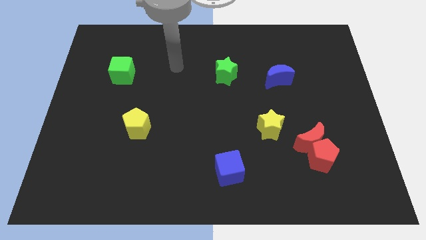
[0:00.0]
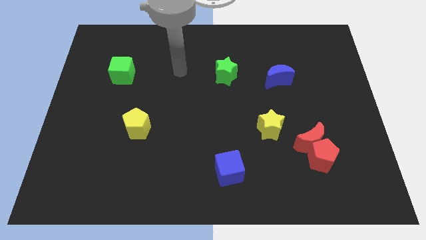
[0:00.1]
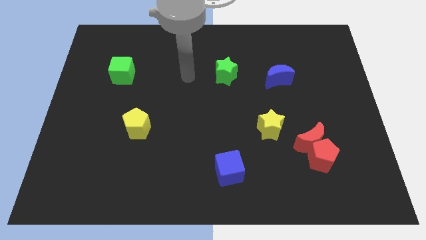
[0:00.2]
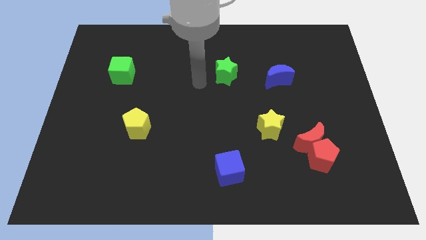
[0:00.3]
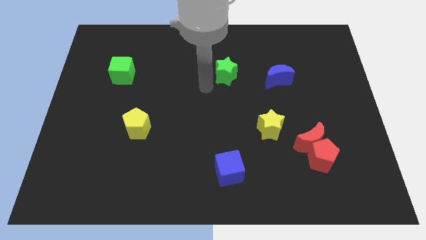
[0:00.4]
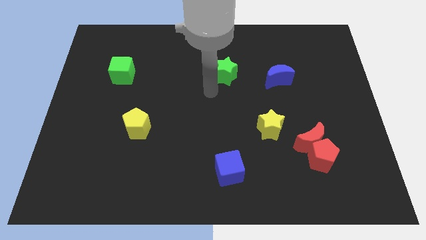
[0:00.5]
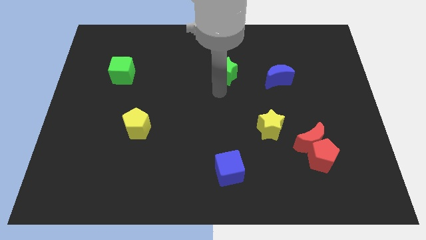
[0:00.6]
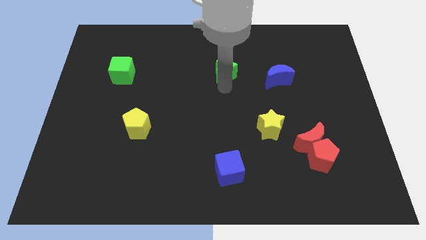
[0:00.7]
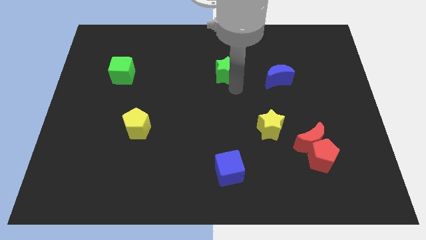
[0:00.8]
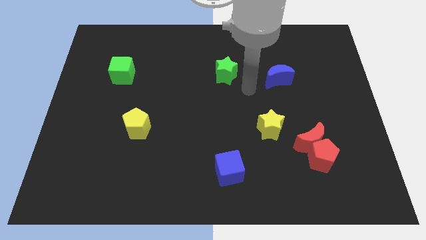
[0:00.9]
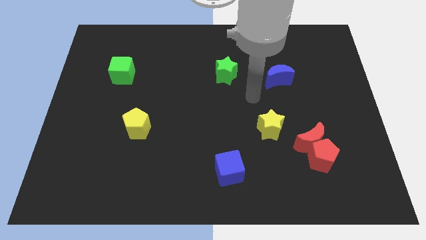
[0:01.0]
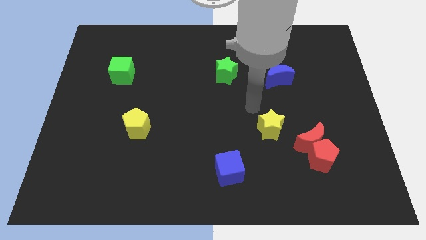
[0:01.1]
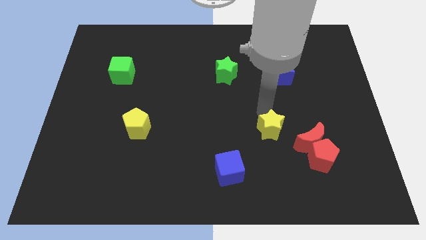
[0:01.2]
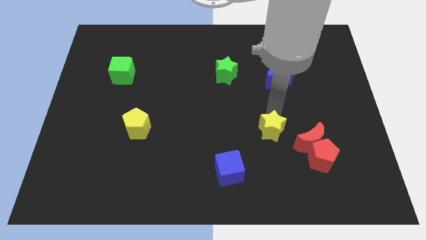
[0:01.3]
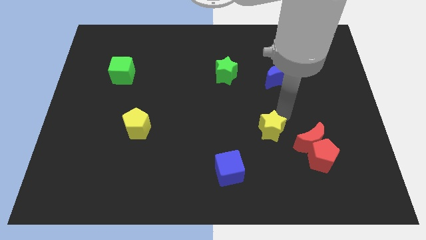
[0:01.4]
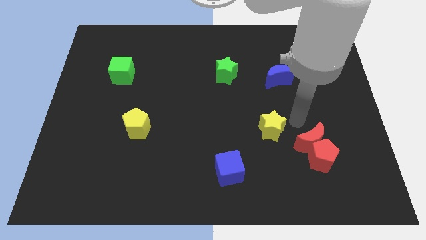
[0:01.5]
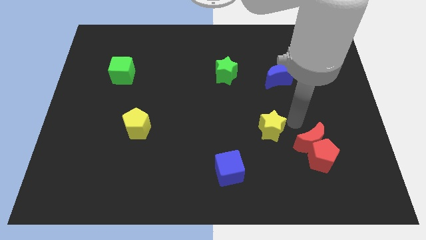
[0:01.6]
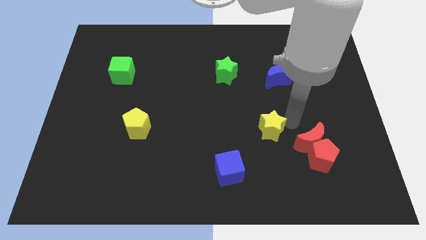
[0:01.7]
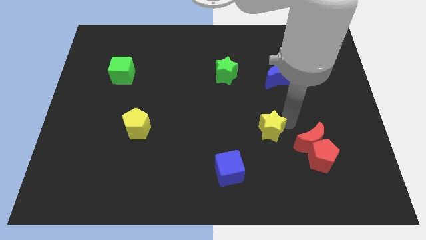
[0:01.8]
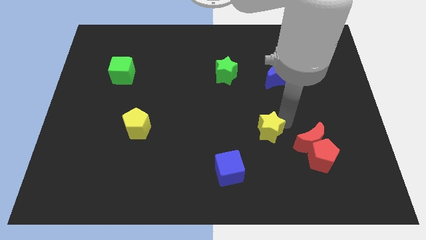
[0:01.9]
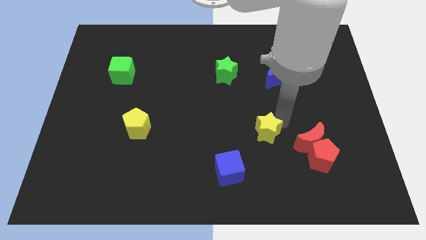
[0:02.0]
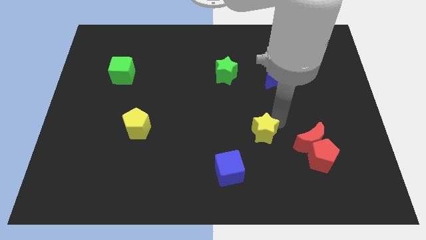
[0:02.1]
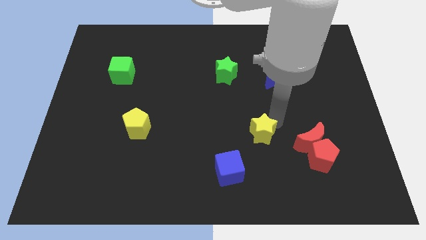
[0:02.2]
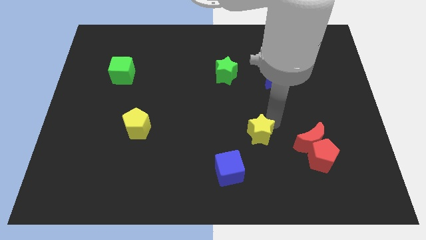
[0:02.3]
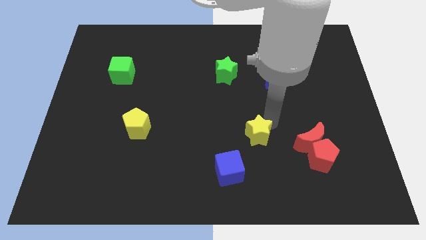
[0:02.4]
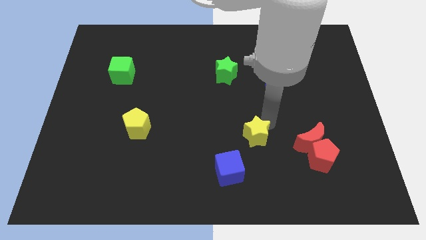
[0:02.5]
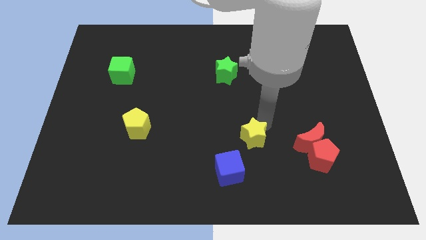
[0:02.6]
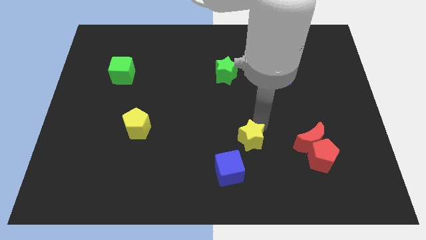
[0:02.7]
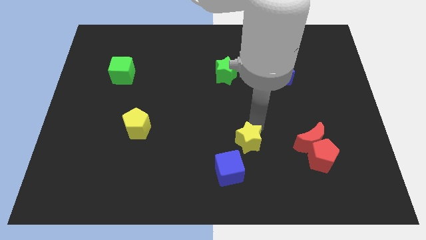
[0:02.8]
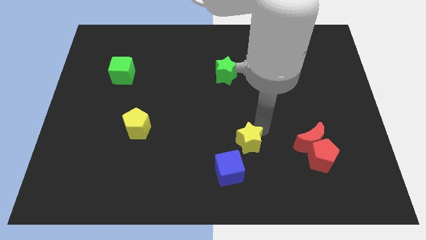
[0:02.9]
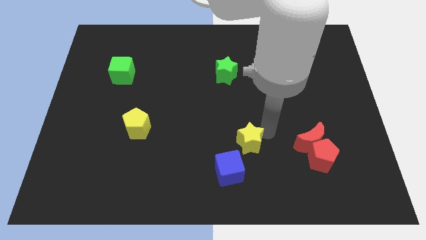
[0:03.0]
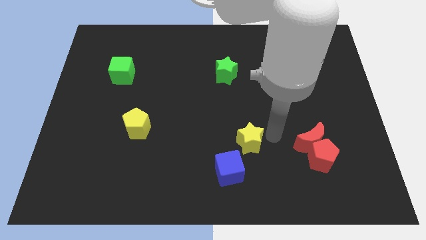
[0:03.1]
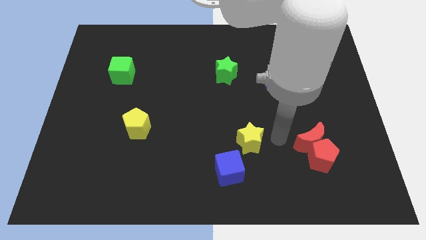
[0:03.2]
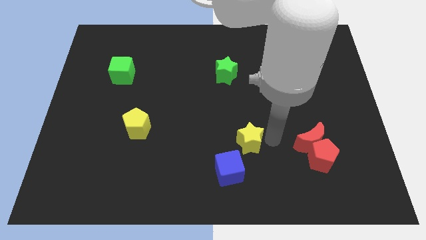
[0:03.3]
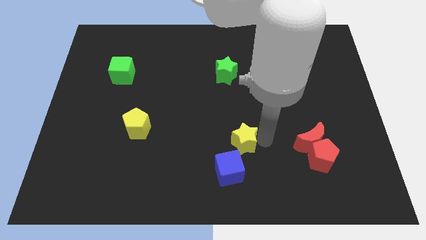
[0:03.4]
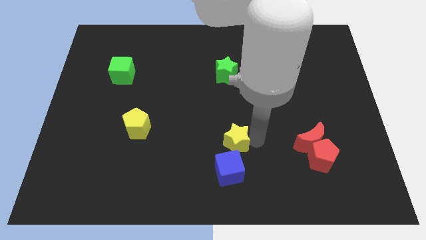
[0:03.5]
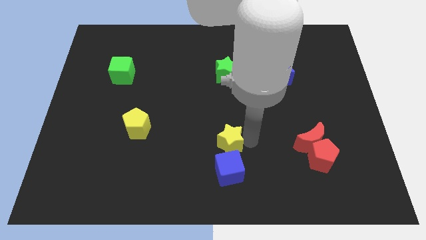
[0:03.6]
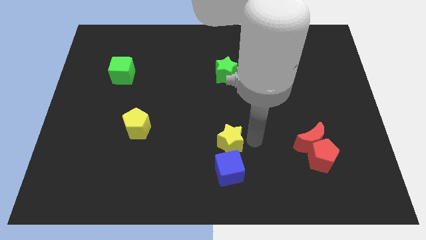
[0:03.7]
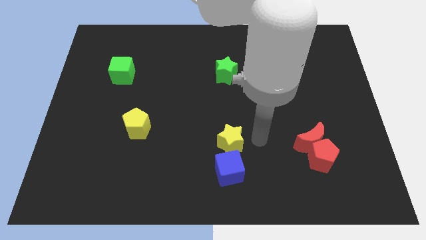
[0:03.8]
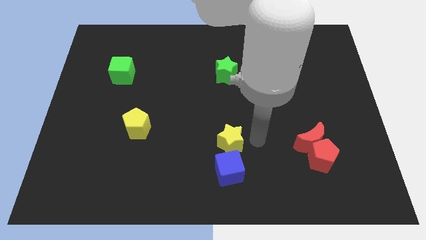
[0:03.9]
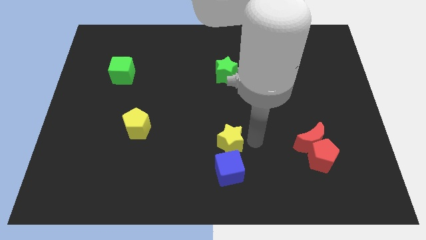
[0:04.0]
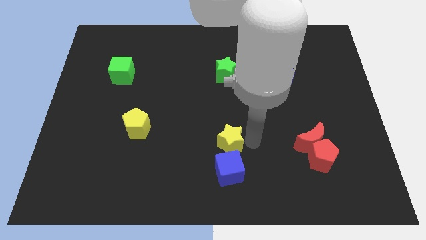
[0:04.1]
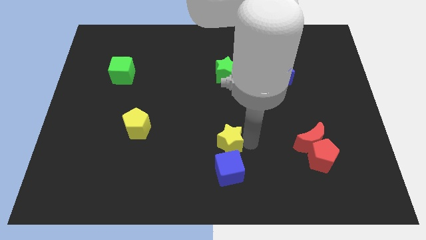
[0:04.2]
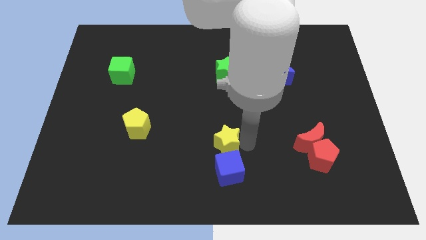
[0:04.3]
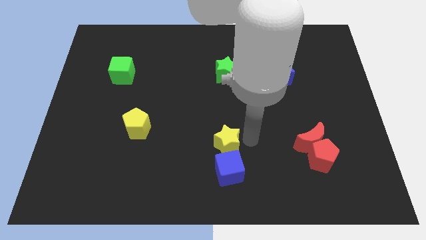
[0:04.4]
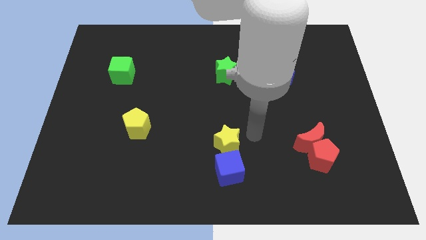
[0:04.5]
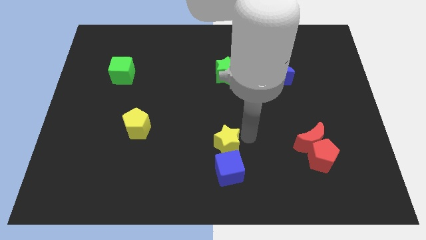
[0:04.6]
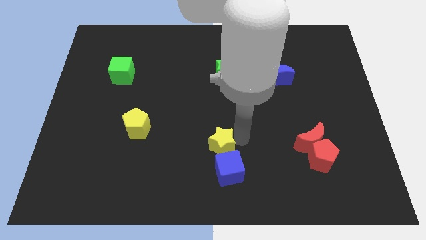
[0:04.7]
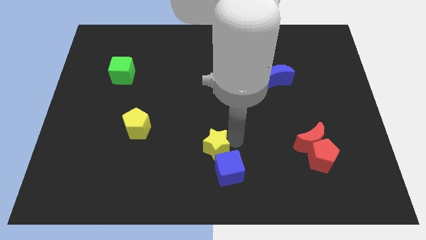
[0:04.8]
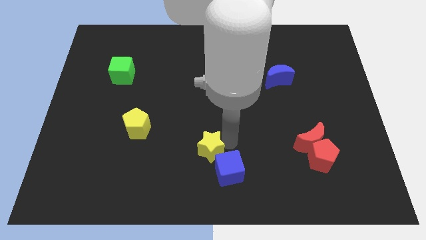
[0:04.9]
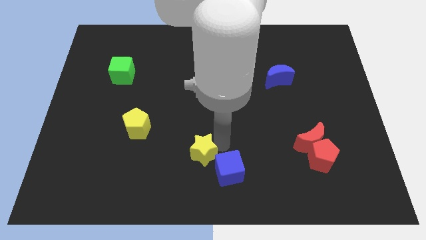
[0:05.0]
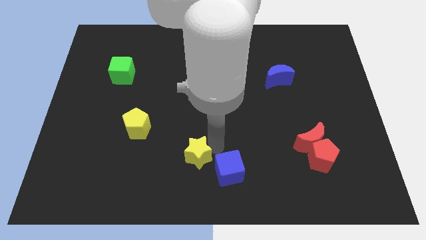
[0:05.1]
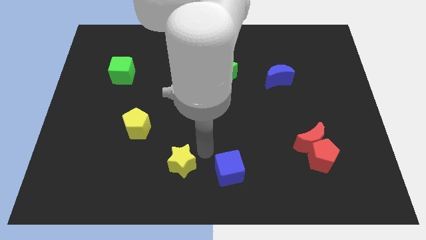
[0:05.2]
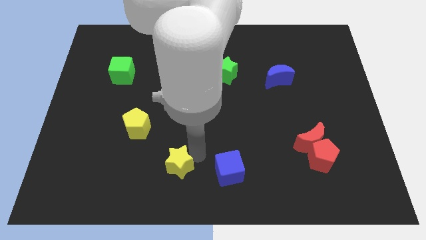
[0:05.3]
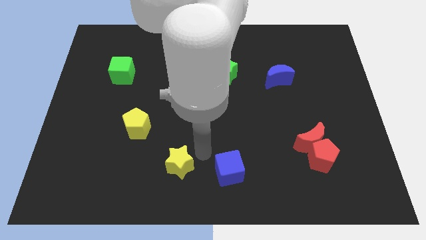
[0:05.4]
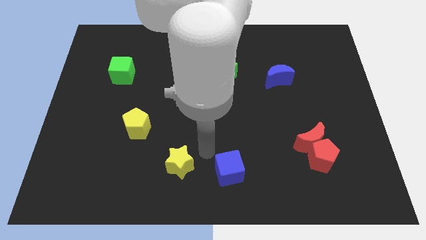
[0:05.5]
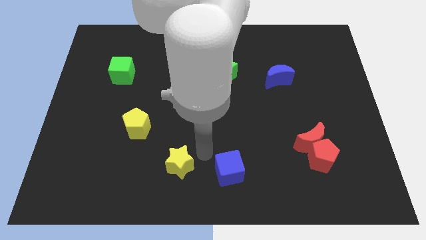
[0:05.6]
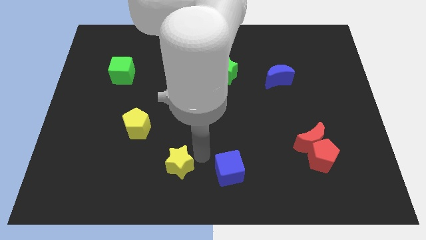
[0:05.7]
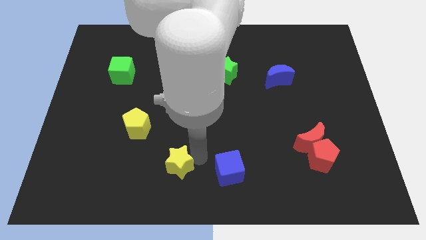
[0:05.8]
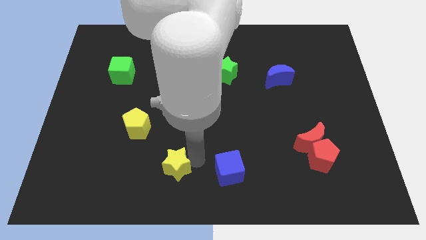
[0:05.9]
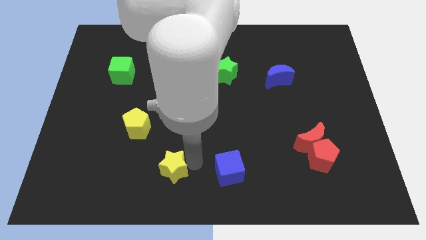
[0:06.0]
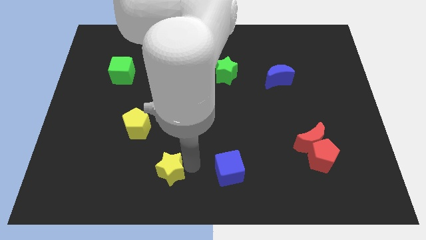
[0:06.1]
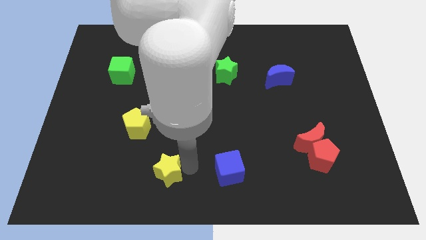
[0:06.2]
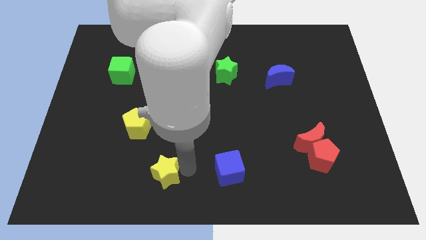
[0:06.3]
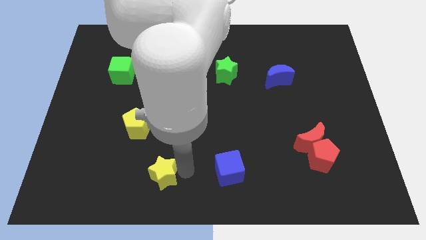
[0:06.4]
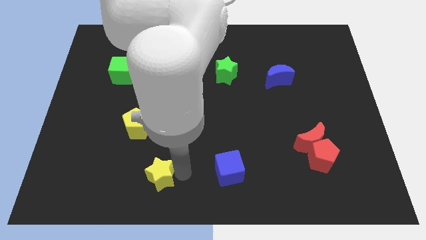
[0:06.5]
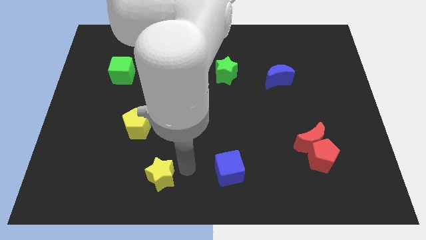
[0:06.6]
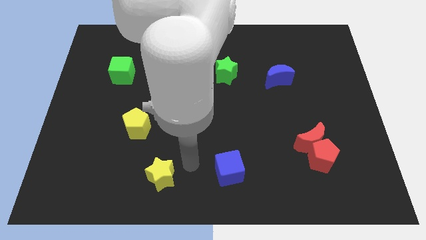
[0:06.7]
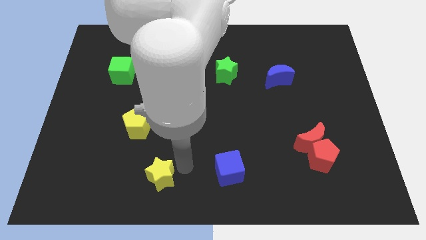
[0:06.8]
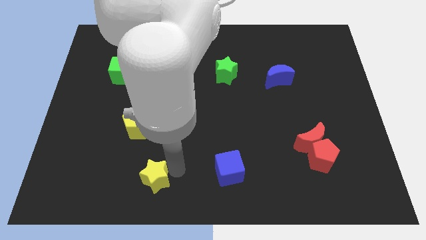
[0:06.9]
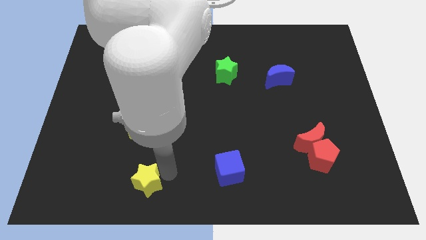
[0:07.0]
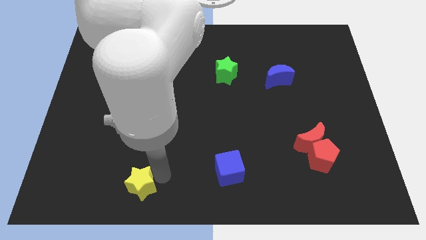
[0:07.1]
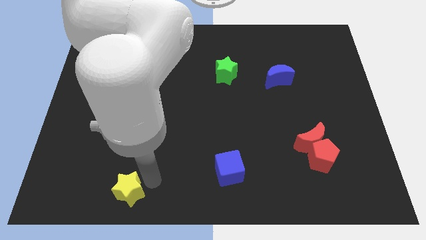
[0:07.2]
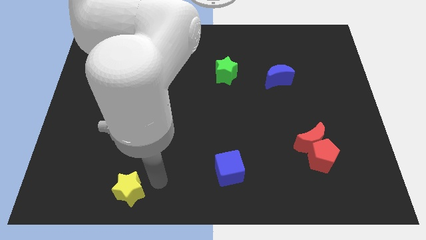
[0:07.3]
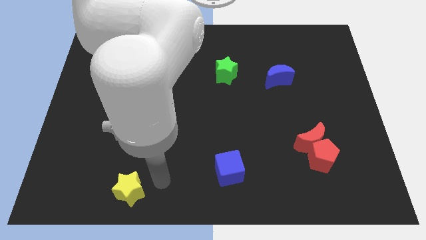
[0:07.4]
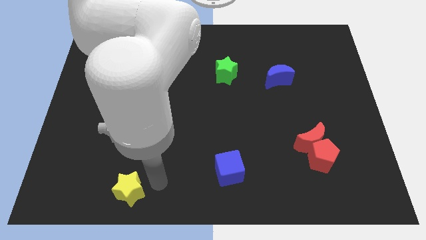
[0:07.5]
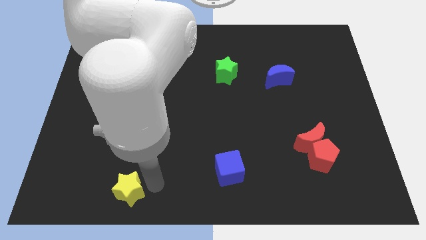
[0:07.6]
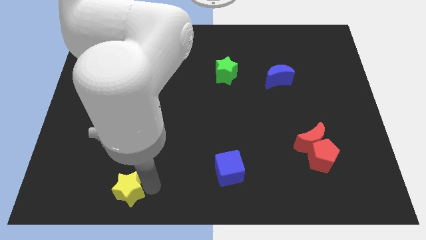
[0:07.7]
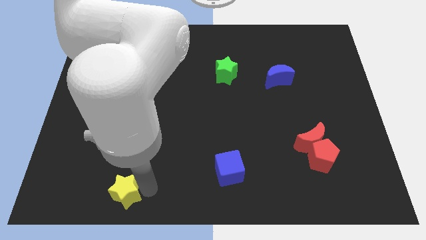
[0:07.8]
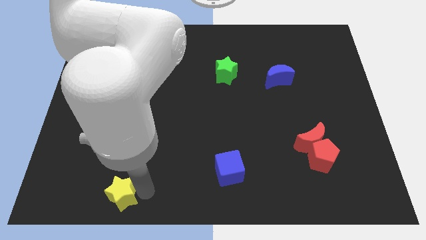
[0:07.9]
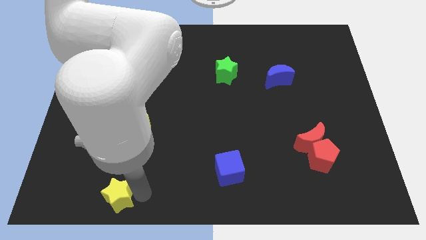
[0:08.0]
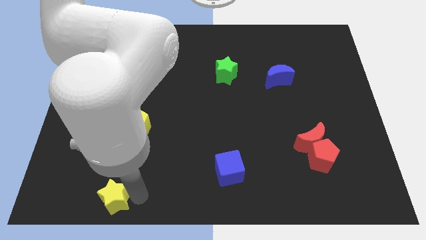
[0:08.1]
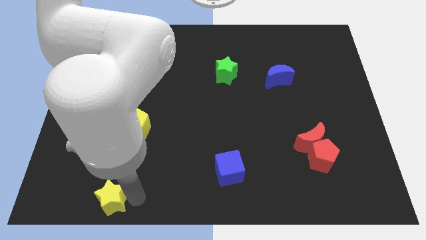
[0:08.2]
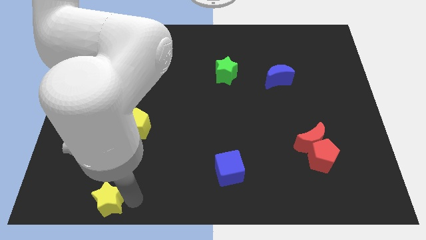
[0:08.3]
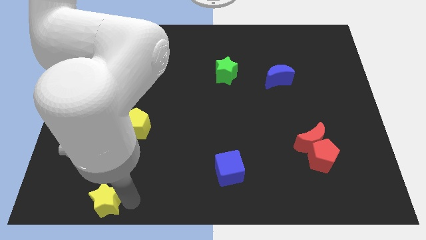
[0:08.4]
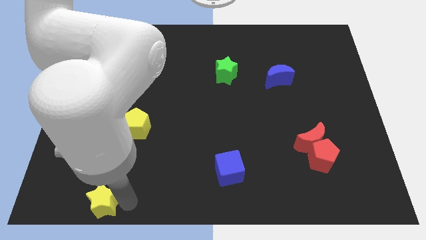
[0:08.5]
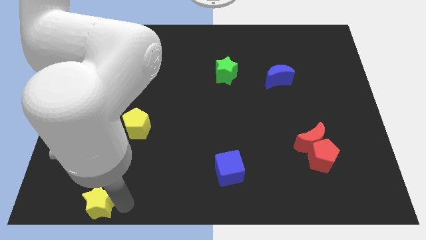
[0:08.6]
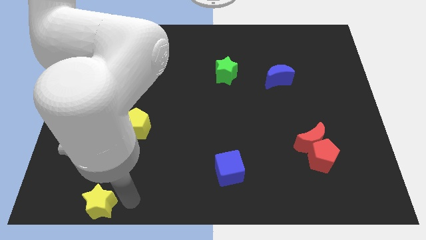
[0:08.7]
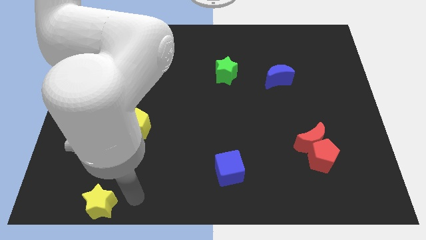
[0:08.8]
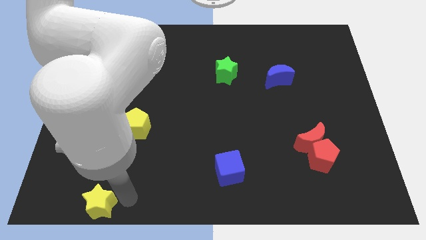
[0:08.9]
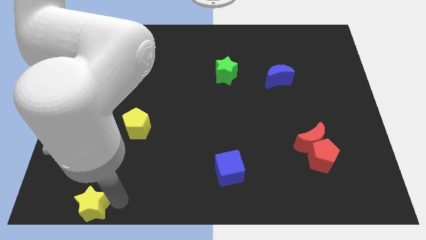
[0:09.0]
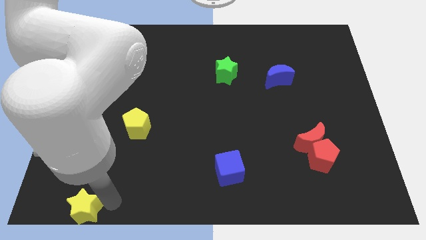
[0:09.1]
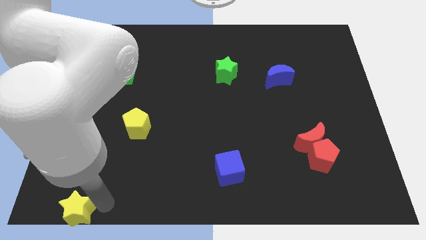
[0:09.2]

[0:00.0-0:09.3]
move the yellow star to the bottom left of the board
